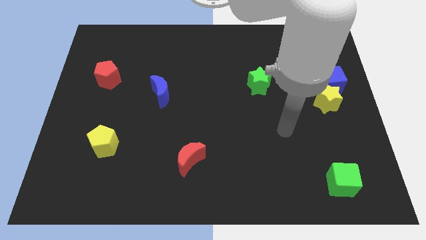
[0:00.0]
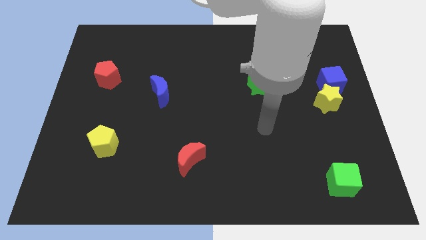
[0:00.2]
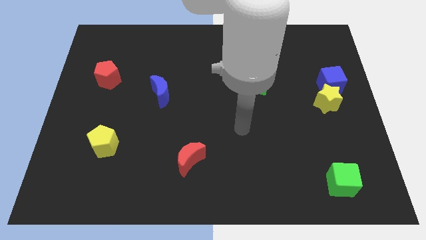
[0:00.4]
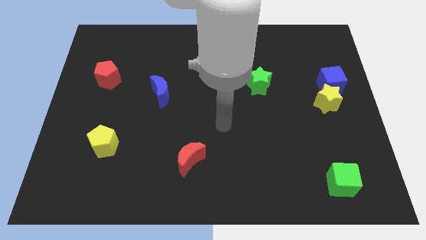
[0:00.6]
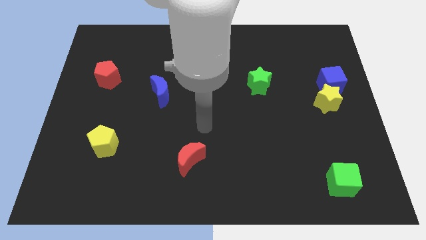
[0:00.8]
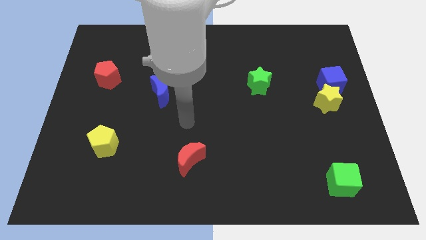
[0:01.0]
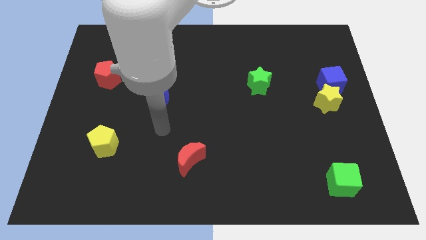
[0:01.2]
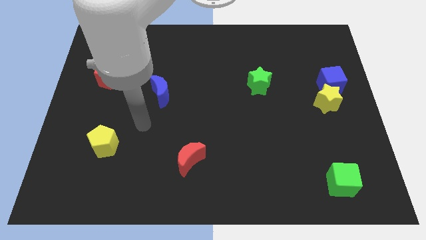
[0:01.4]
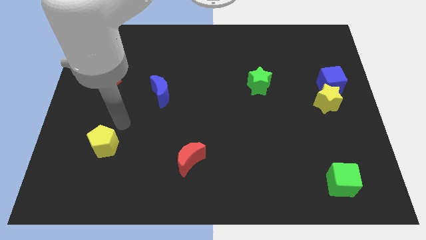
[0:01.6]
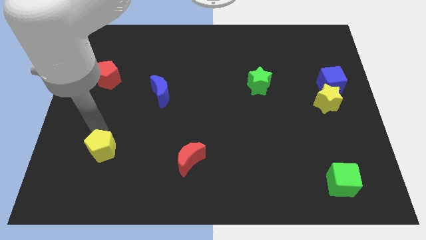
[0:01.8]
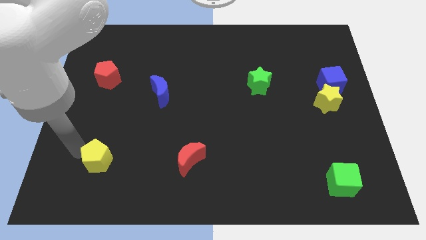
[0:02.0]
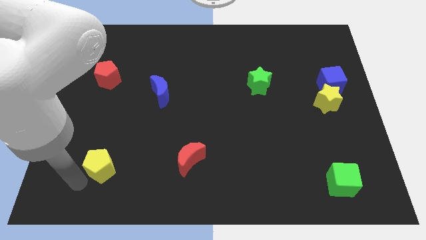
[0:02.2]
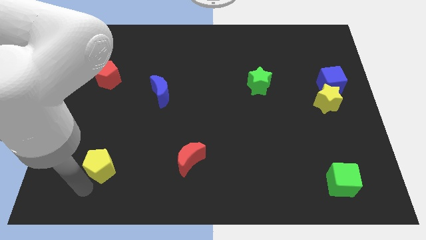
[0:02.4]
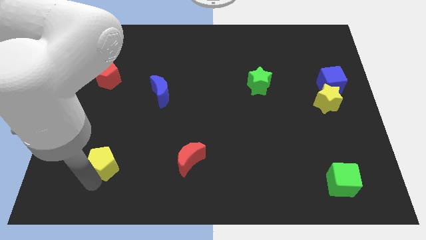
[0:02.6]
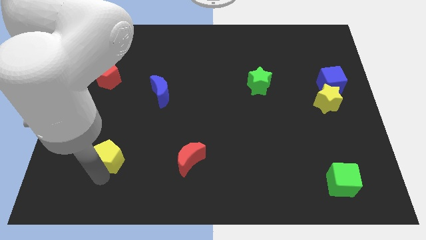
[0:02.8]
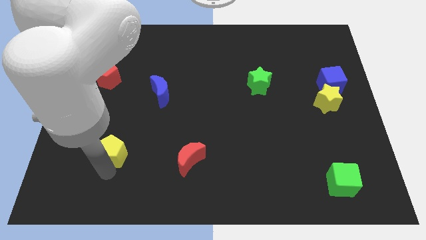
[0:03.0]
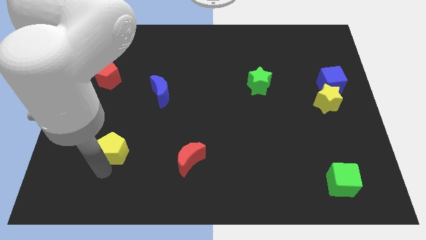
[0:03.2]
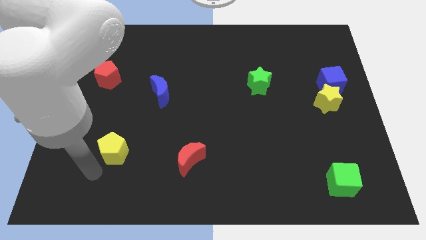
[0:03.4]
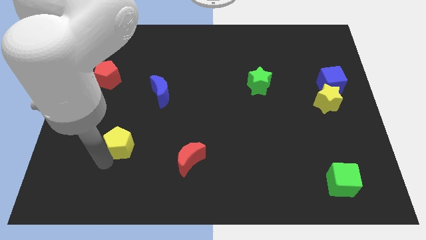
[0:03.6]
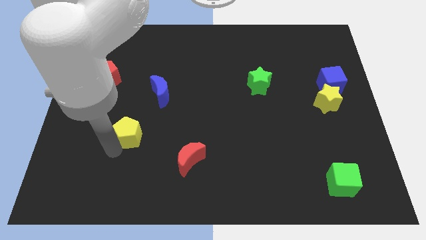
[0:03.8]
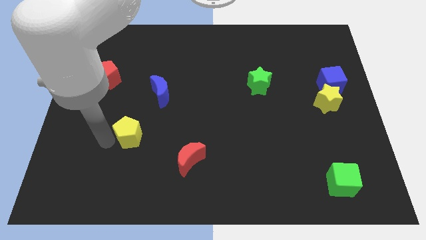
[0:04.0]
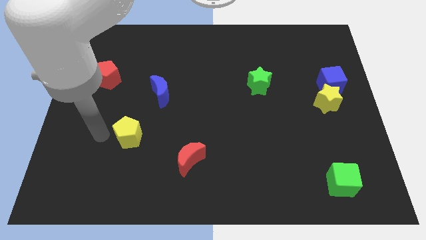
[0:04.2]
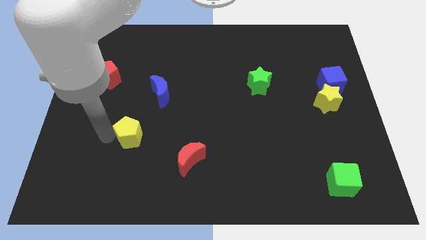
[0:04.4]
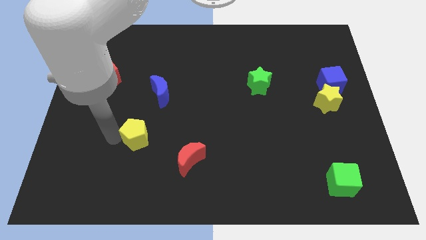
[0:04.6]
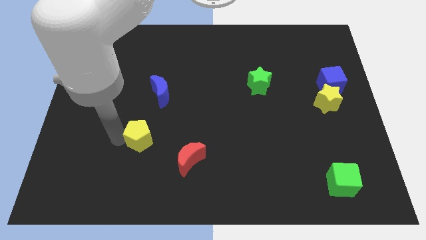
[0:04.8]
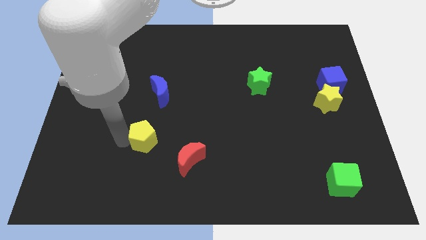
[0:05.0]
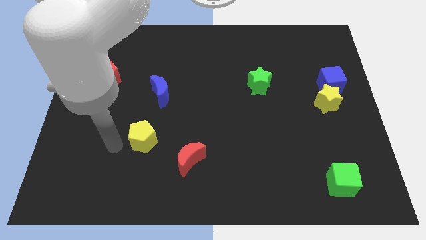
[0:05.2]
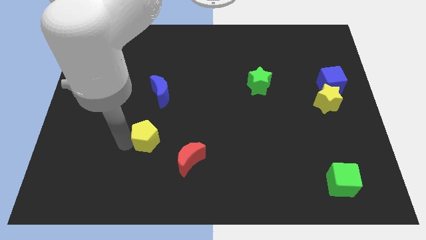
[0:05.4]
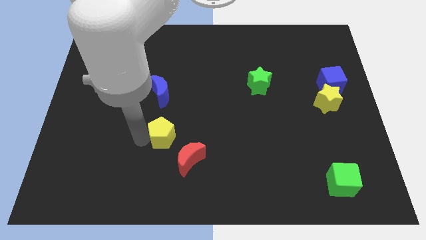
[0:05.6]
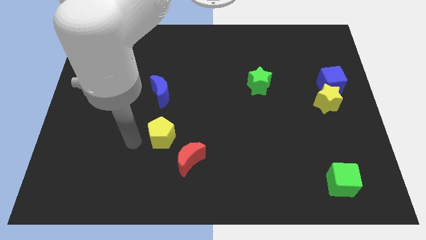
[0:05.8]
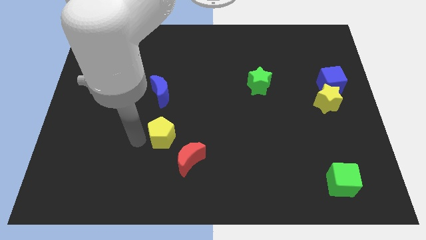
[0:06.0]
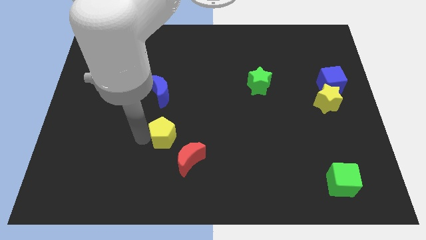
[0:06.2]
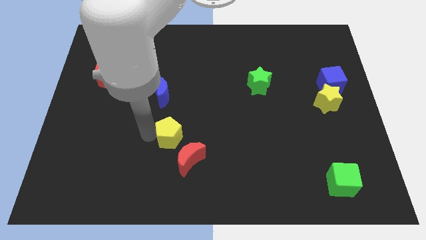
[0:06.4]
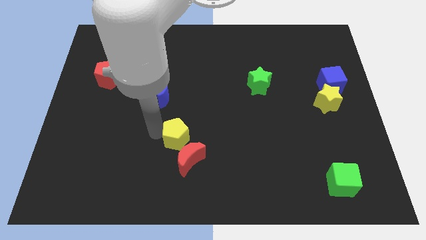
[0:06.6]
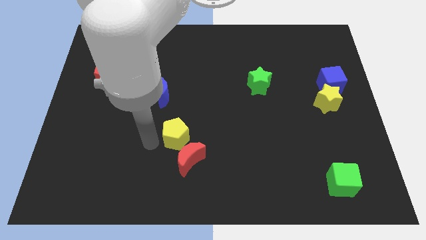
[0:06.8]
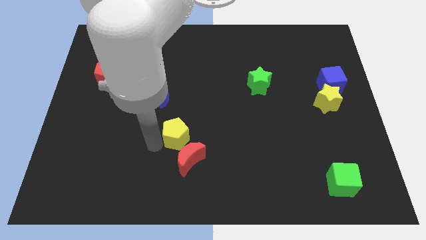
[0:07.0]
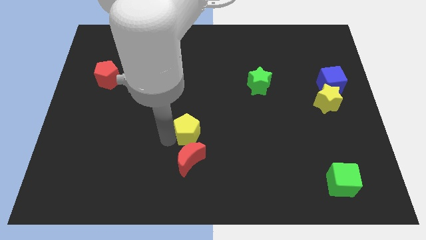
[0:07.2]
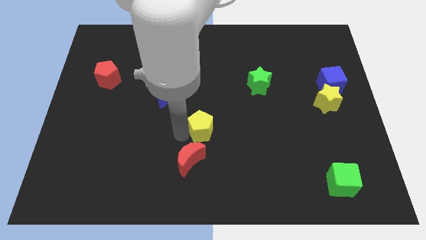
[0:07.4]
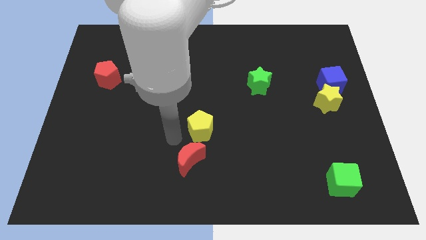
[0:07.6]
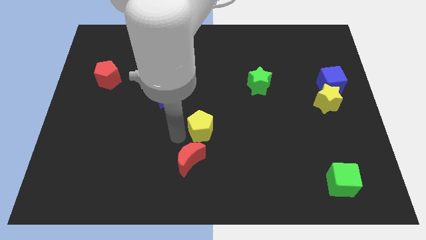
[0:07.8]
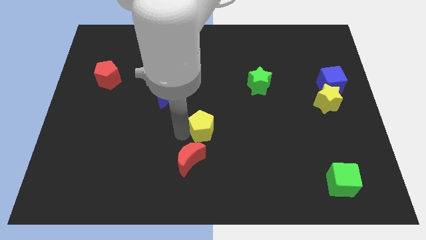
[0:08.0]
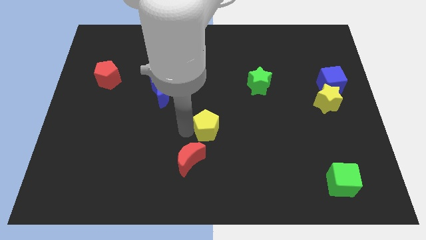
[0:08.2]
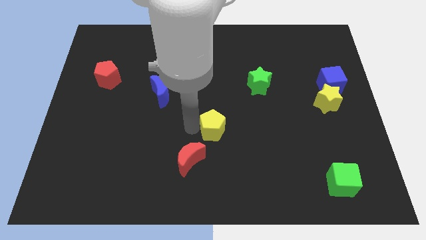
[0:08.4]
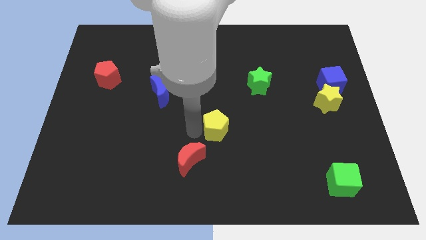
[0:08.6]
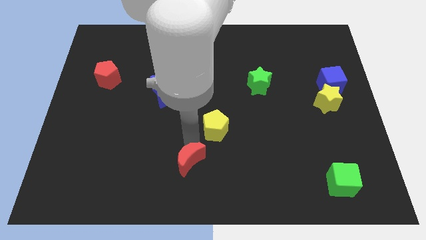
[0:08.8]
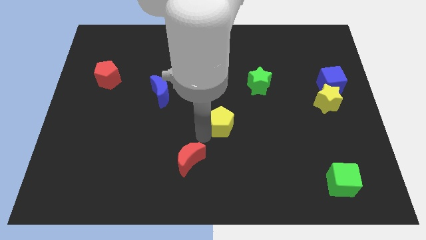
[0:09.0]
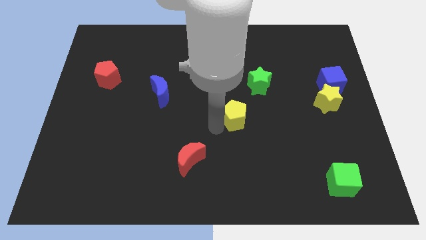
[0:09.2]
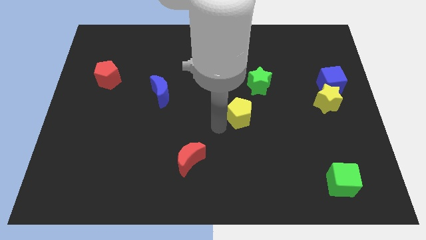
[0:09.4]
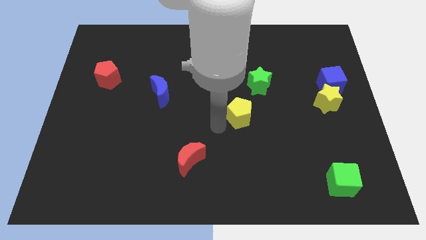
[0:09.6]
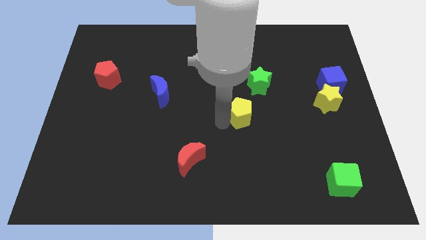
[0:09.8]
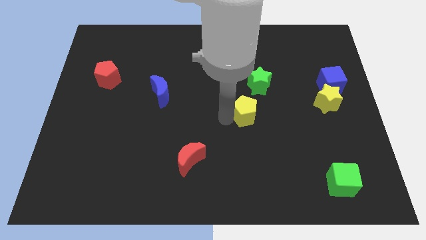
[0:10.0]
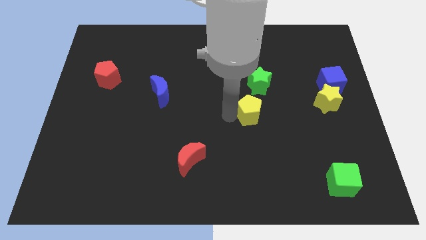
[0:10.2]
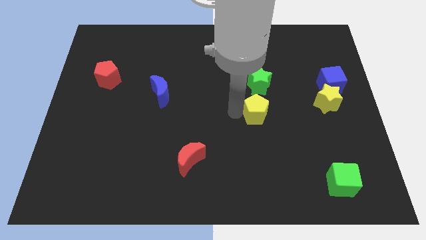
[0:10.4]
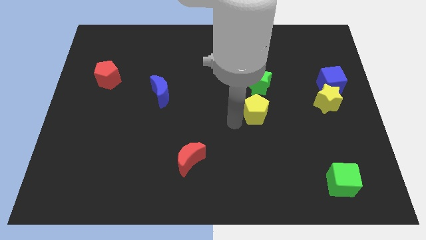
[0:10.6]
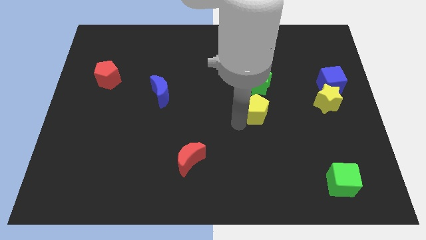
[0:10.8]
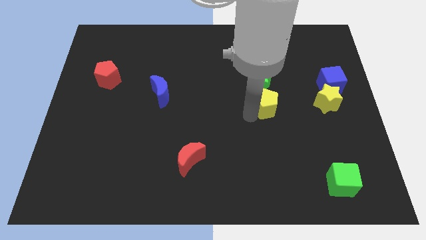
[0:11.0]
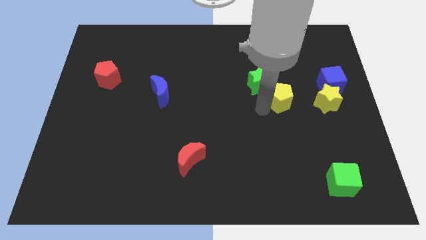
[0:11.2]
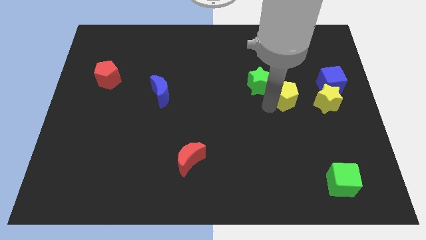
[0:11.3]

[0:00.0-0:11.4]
push the yellow pentagon to the left side of the blue cube
